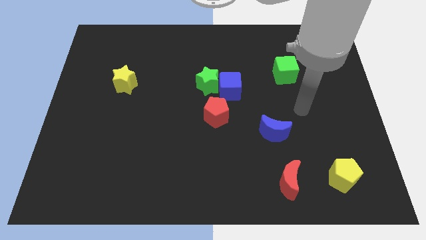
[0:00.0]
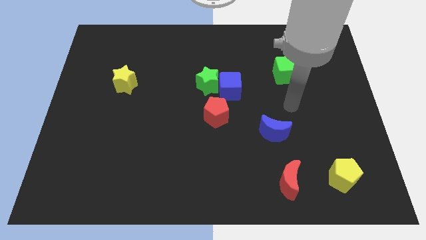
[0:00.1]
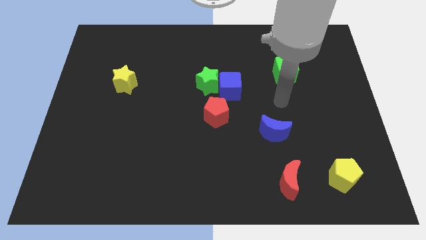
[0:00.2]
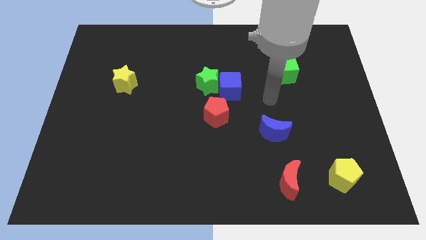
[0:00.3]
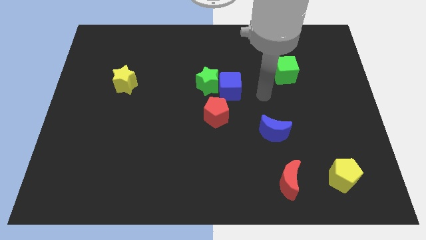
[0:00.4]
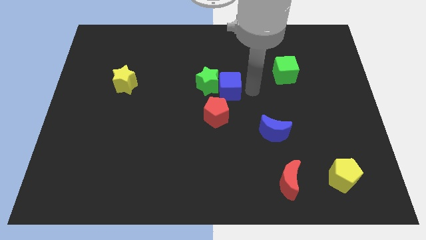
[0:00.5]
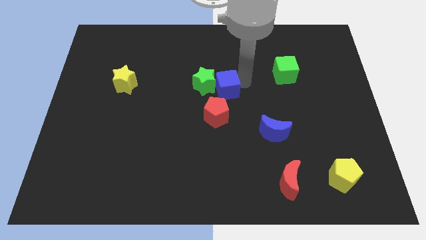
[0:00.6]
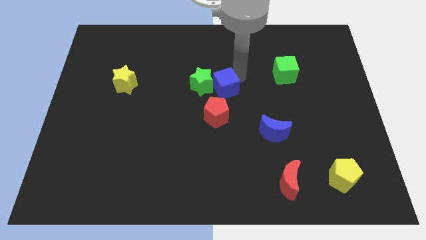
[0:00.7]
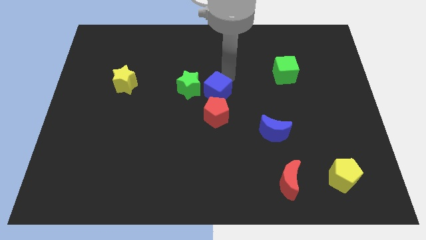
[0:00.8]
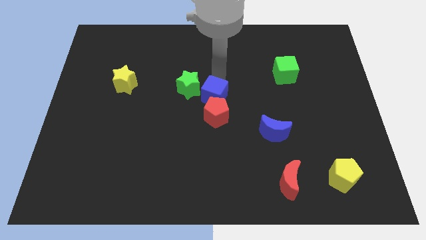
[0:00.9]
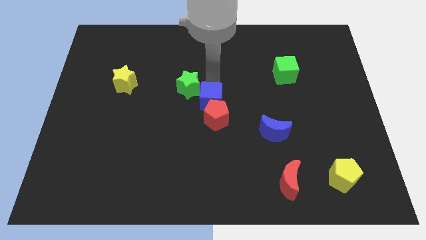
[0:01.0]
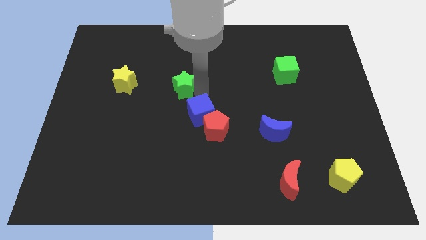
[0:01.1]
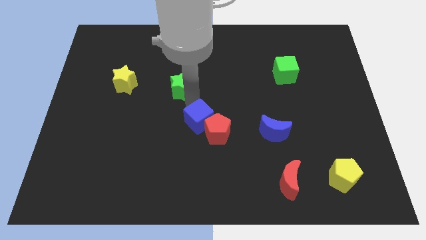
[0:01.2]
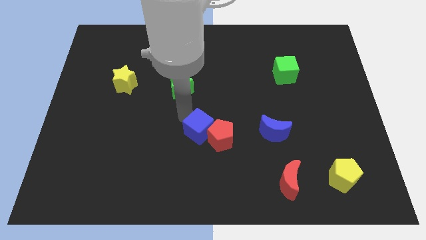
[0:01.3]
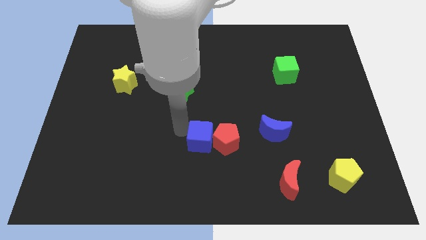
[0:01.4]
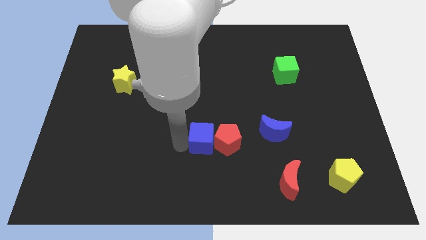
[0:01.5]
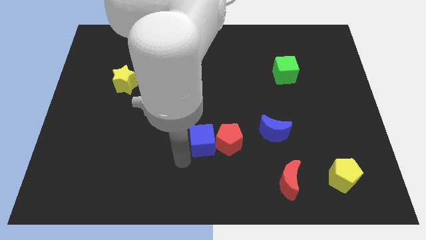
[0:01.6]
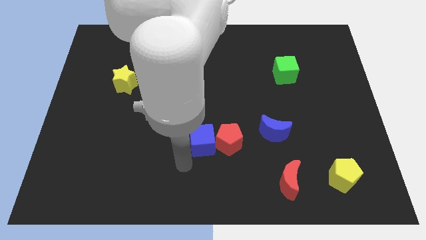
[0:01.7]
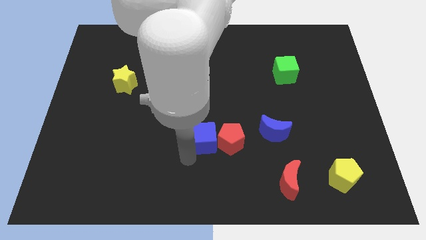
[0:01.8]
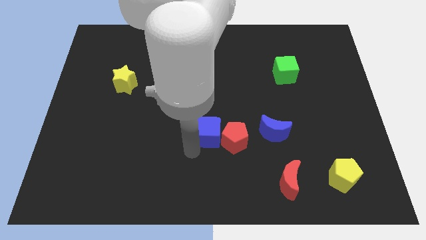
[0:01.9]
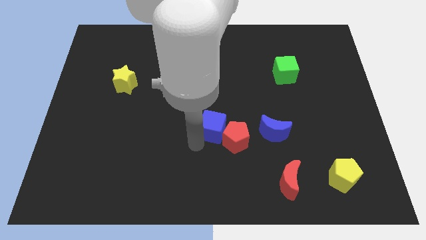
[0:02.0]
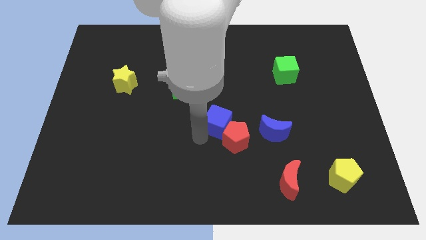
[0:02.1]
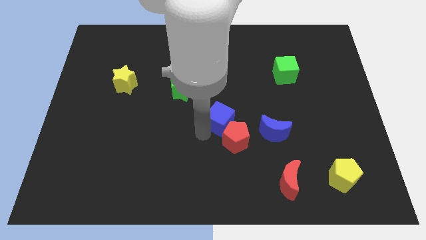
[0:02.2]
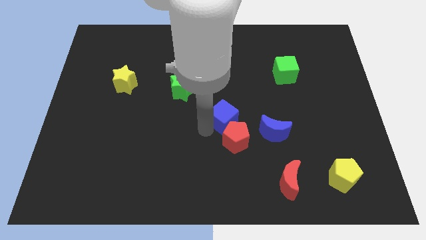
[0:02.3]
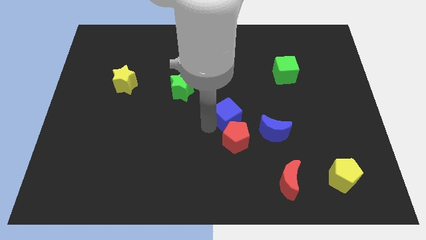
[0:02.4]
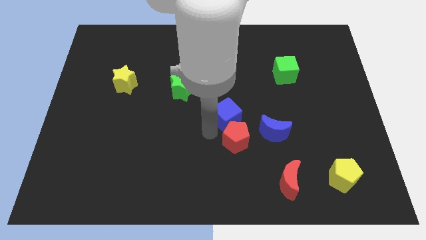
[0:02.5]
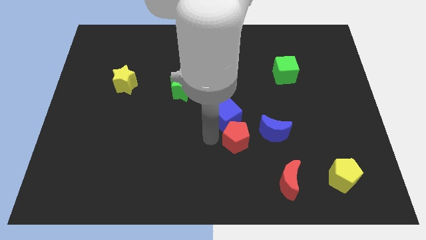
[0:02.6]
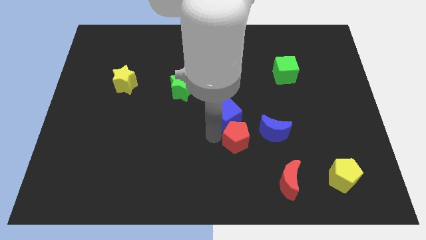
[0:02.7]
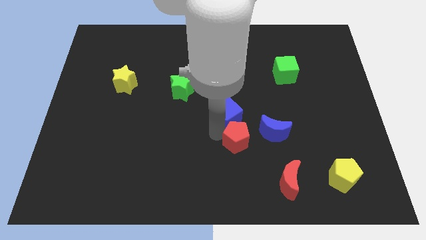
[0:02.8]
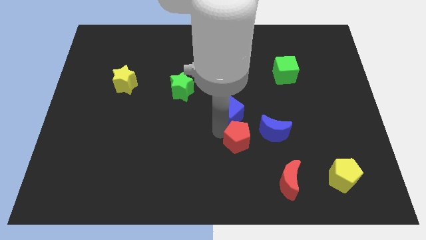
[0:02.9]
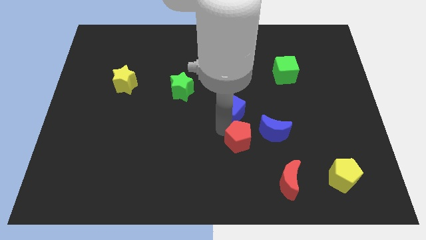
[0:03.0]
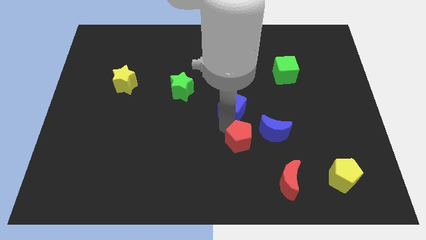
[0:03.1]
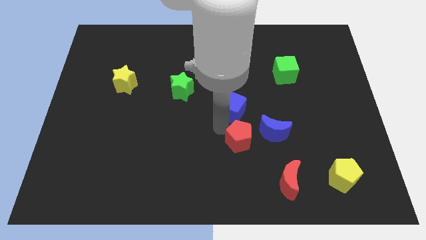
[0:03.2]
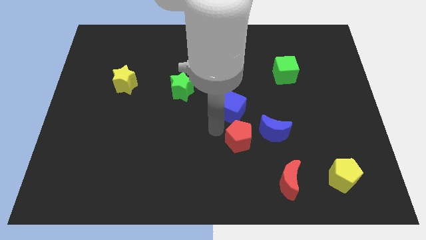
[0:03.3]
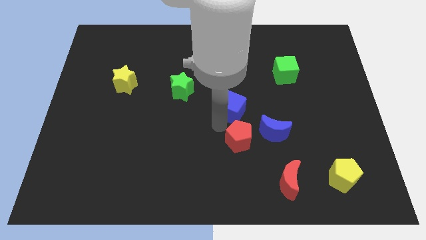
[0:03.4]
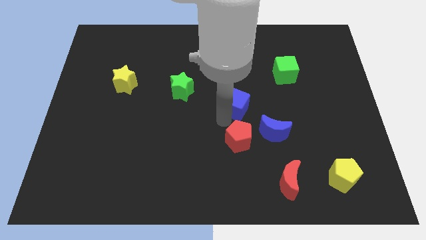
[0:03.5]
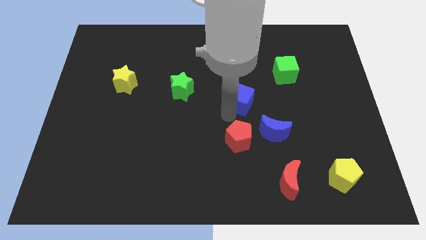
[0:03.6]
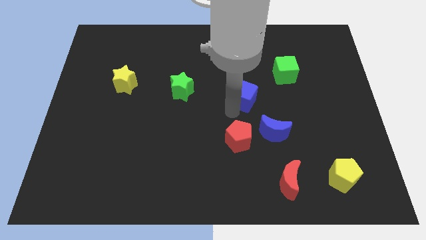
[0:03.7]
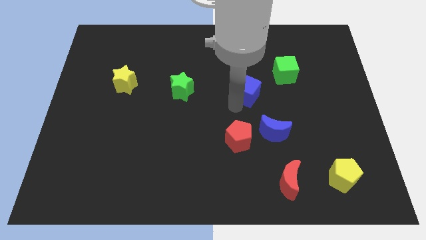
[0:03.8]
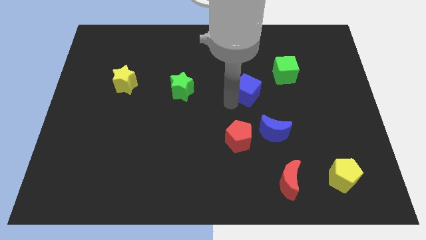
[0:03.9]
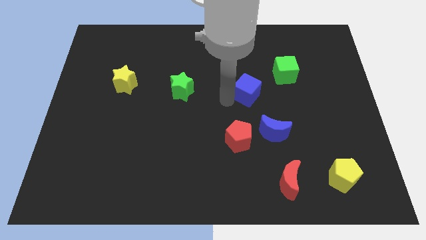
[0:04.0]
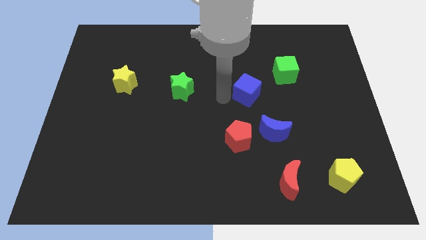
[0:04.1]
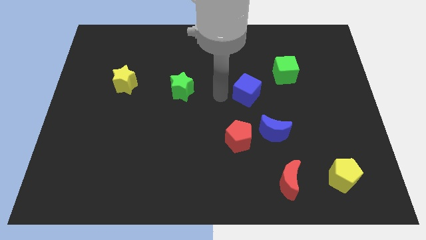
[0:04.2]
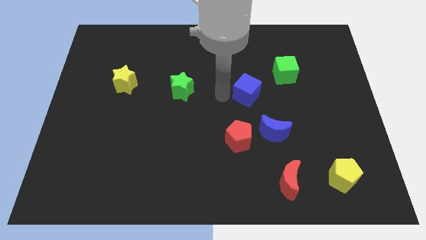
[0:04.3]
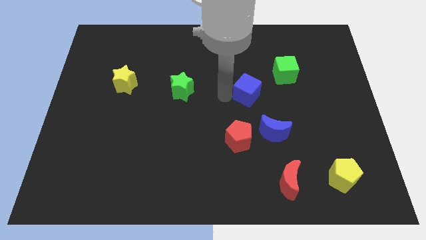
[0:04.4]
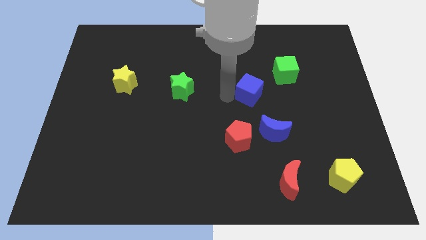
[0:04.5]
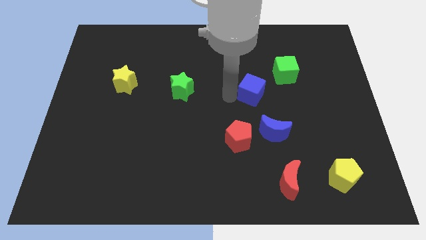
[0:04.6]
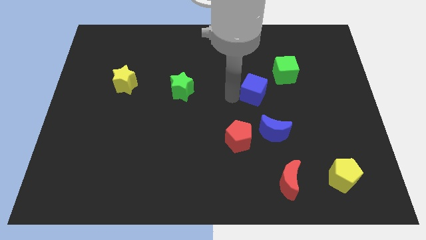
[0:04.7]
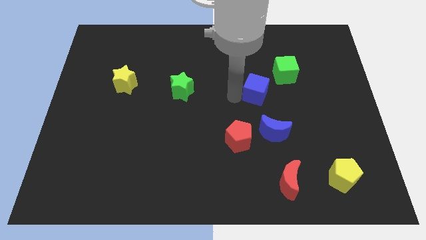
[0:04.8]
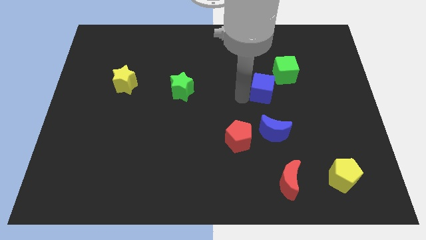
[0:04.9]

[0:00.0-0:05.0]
push the blue cube a little right

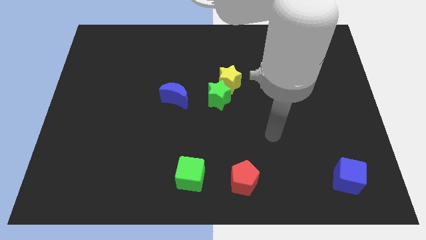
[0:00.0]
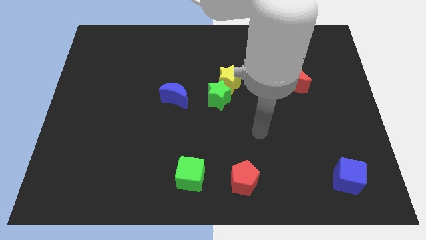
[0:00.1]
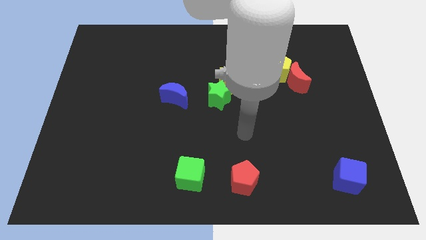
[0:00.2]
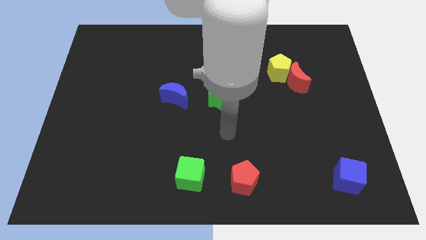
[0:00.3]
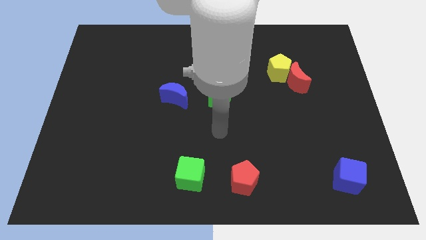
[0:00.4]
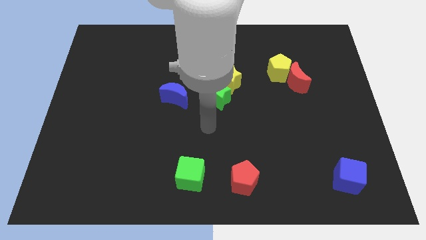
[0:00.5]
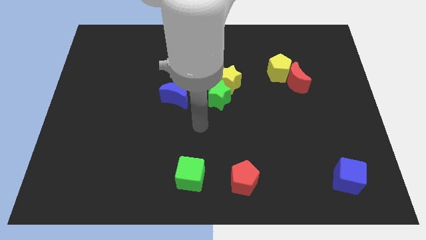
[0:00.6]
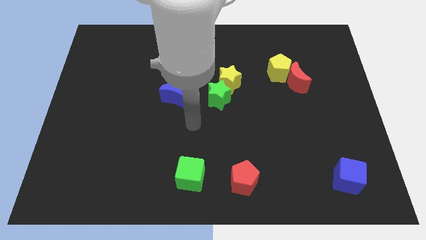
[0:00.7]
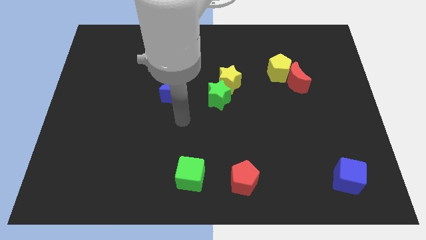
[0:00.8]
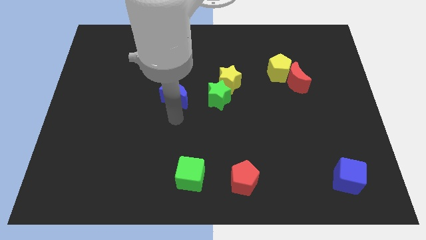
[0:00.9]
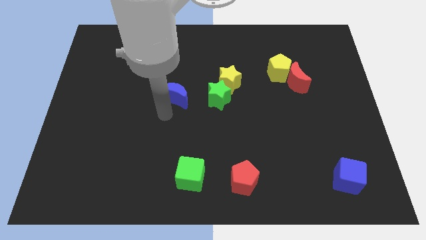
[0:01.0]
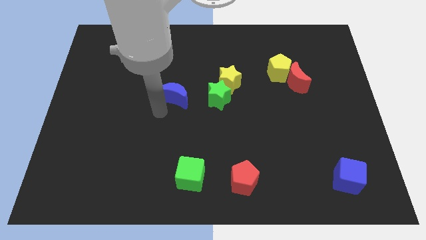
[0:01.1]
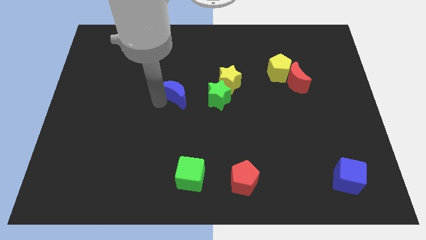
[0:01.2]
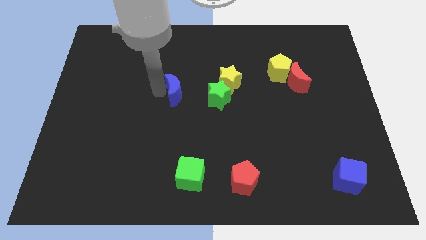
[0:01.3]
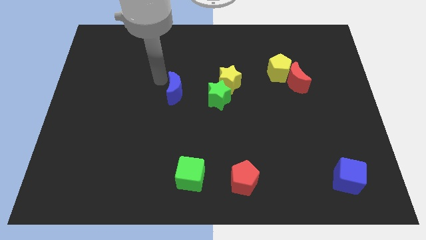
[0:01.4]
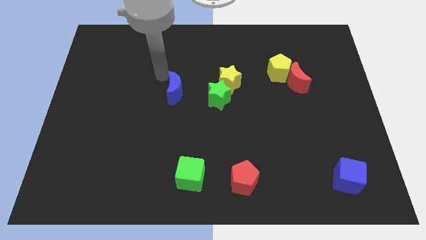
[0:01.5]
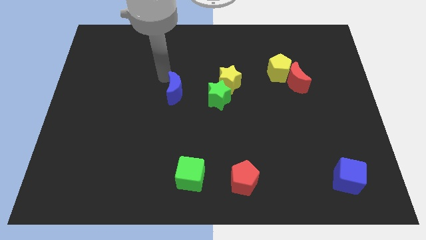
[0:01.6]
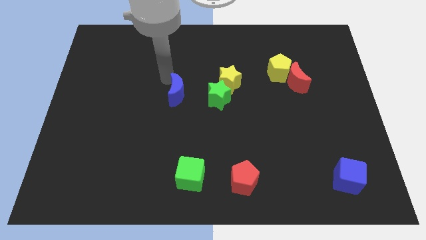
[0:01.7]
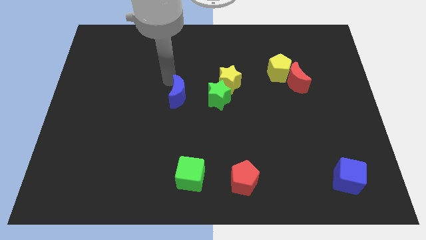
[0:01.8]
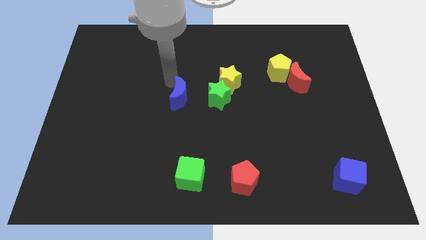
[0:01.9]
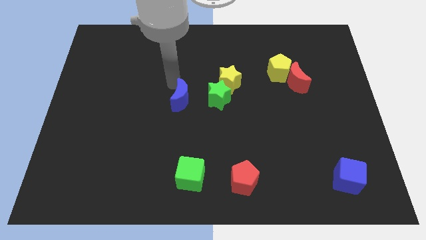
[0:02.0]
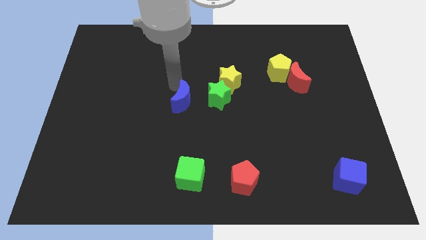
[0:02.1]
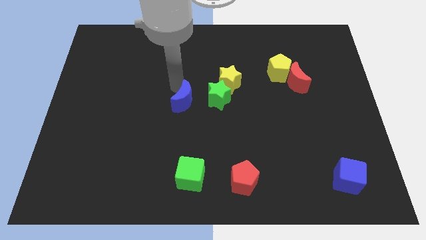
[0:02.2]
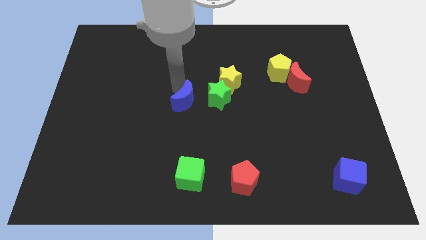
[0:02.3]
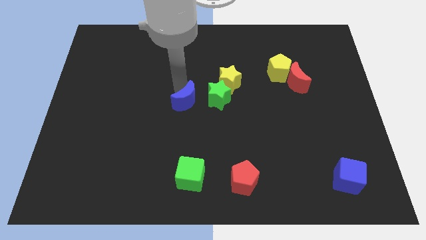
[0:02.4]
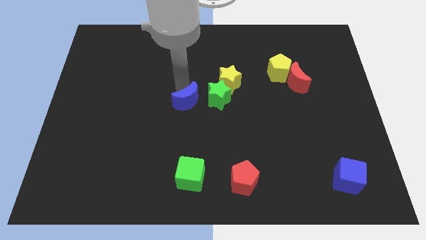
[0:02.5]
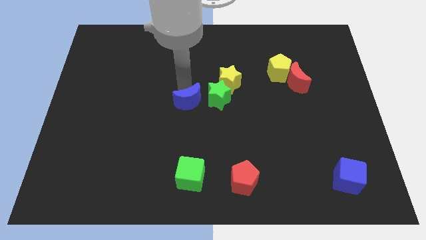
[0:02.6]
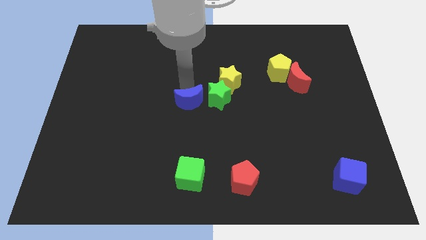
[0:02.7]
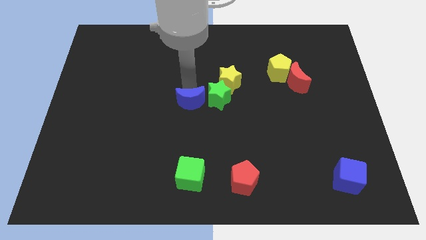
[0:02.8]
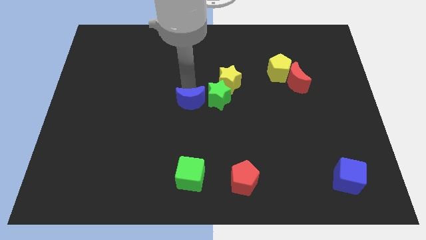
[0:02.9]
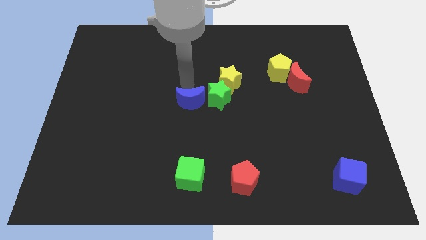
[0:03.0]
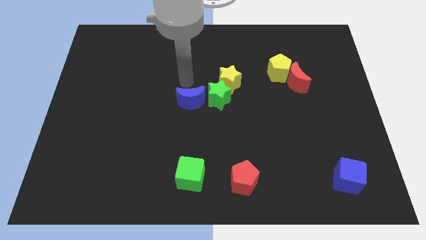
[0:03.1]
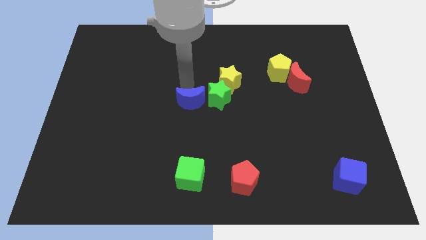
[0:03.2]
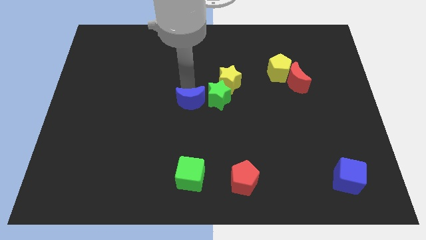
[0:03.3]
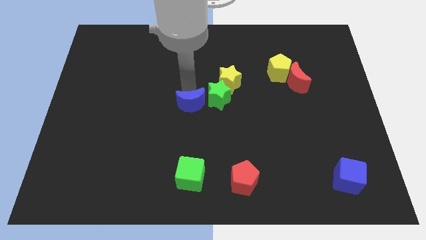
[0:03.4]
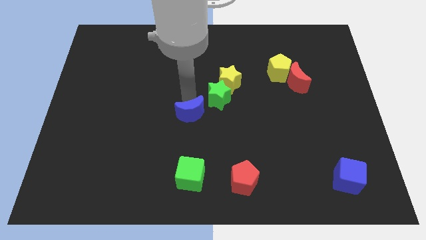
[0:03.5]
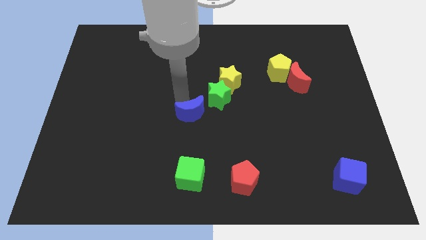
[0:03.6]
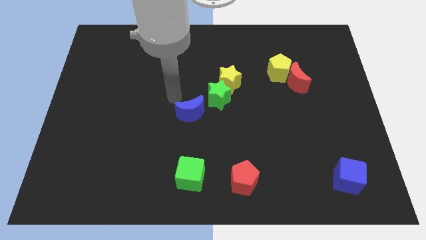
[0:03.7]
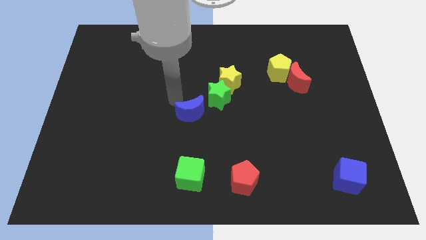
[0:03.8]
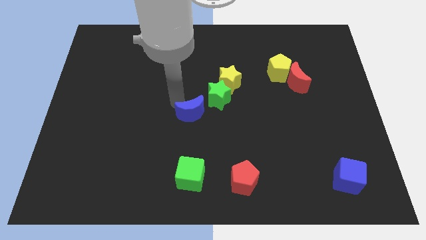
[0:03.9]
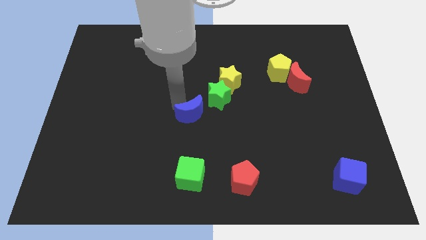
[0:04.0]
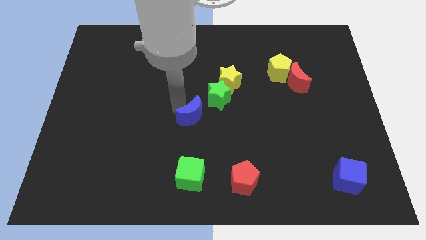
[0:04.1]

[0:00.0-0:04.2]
slightly move the blue moon downwards and then right
